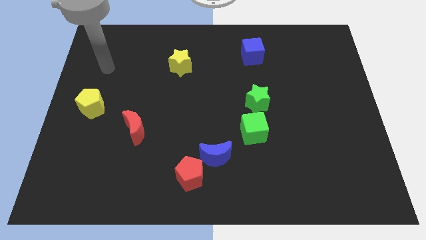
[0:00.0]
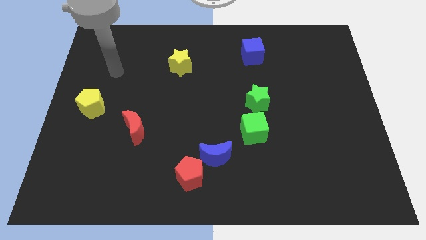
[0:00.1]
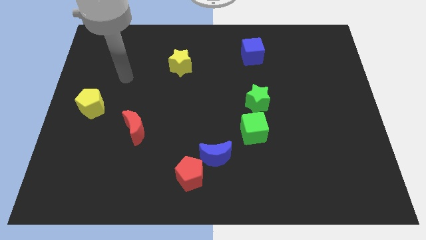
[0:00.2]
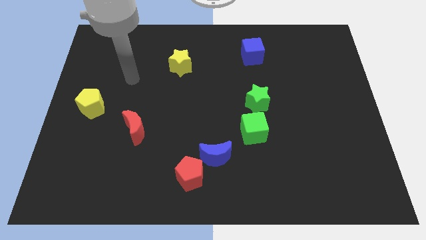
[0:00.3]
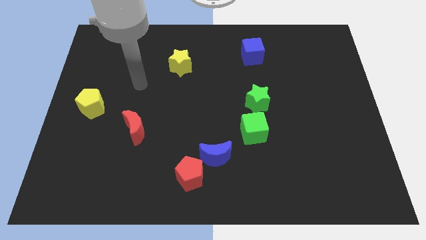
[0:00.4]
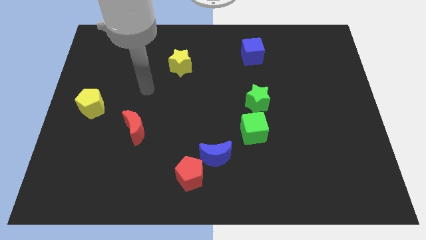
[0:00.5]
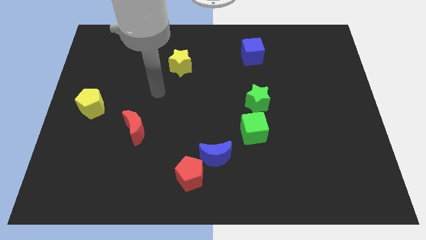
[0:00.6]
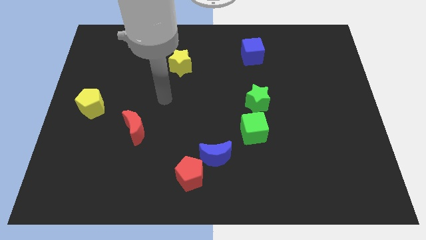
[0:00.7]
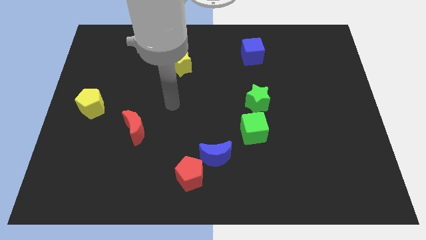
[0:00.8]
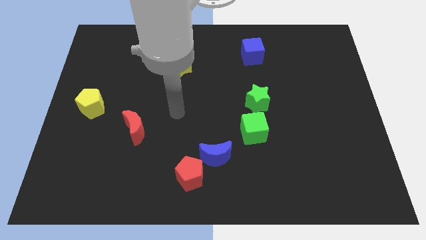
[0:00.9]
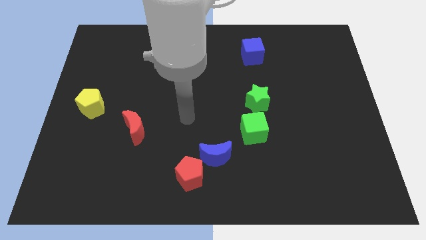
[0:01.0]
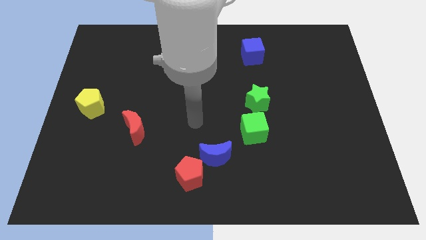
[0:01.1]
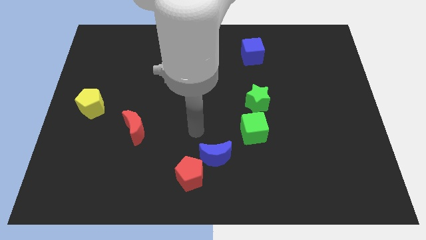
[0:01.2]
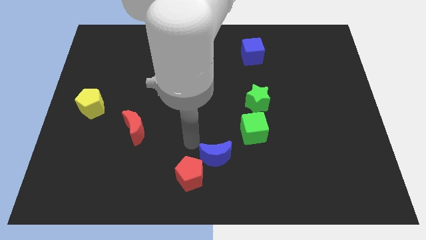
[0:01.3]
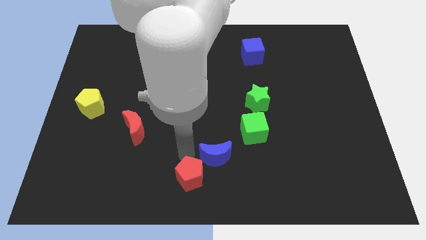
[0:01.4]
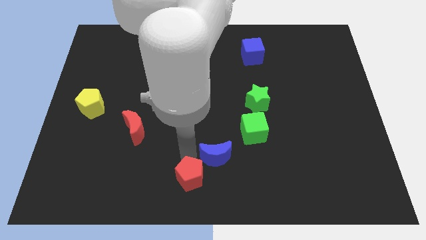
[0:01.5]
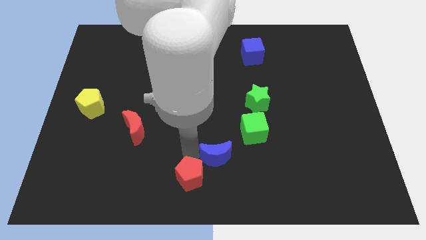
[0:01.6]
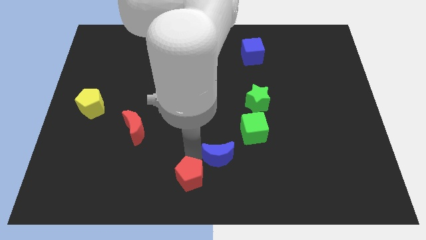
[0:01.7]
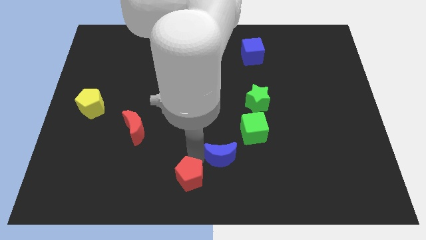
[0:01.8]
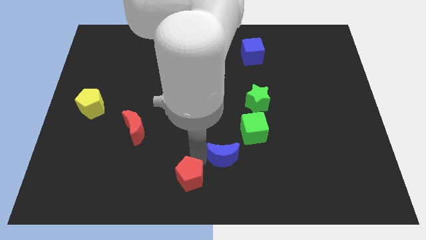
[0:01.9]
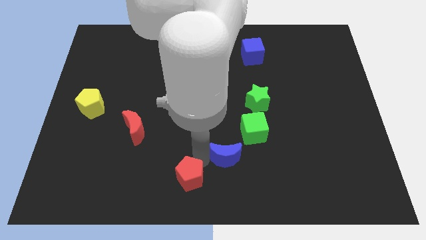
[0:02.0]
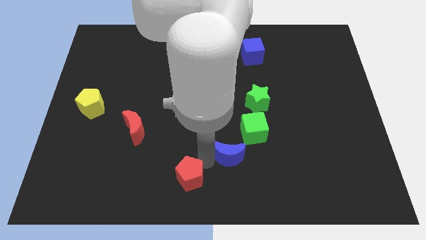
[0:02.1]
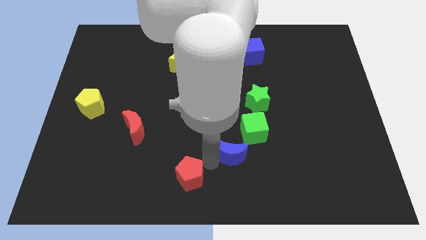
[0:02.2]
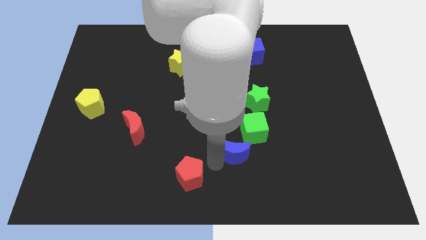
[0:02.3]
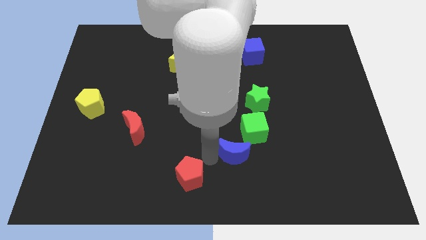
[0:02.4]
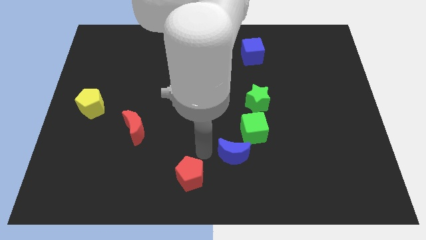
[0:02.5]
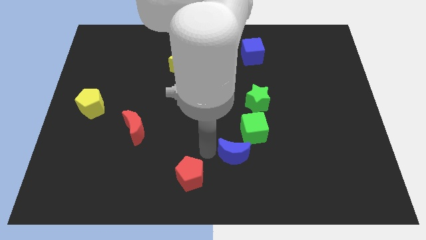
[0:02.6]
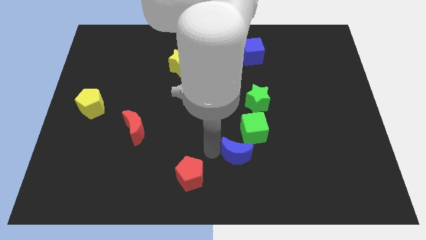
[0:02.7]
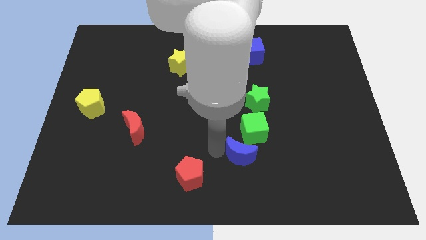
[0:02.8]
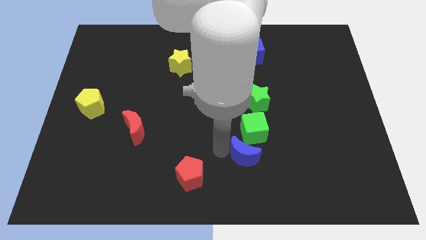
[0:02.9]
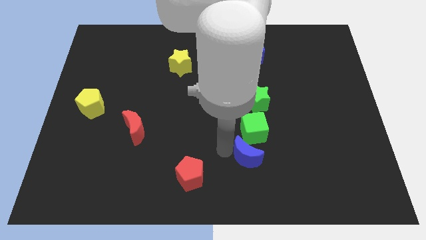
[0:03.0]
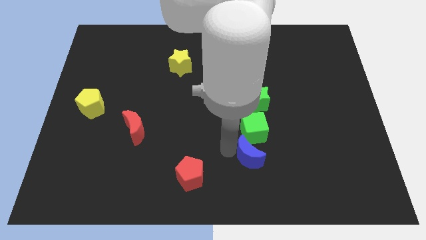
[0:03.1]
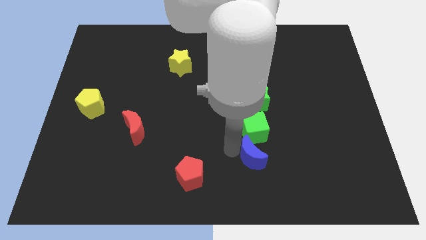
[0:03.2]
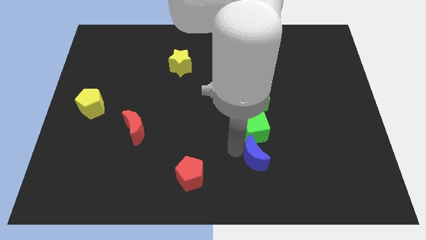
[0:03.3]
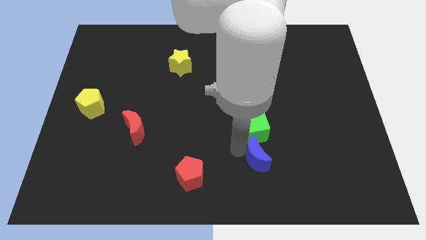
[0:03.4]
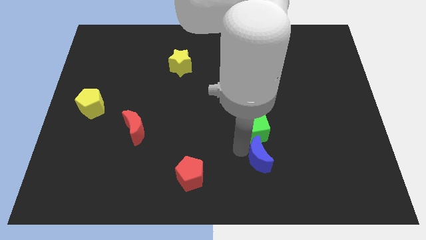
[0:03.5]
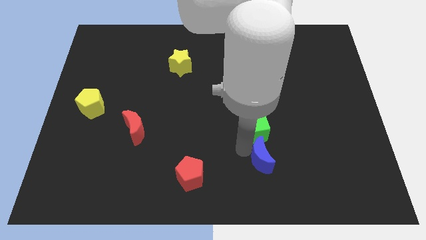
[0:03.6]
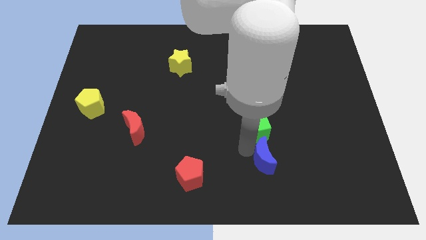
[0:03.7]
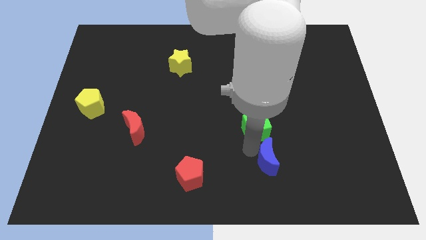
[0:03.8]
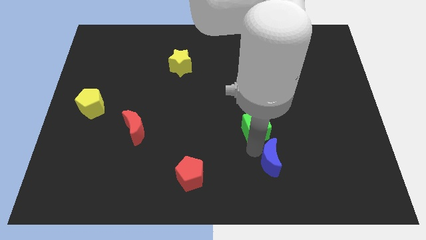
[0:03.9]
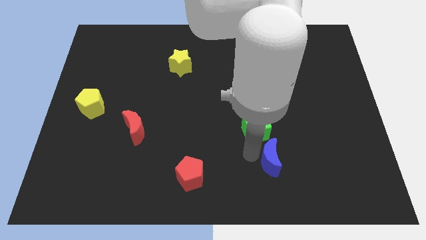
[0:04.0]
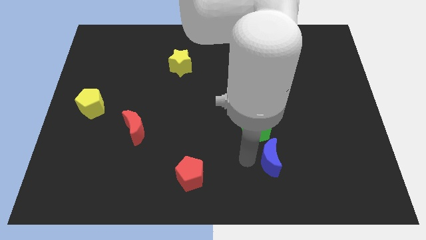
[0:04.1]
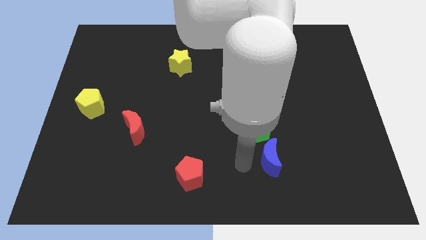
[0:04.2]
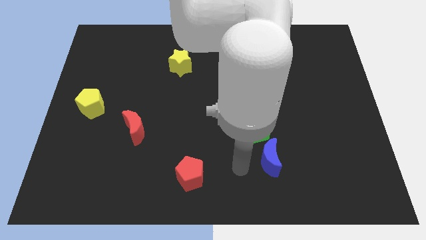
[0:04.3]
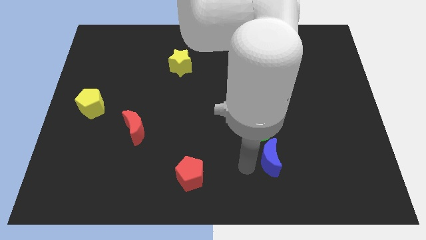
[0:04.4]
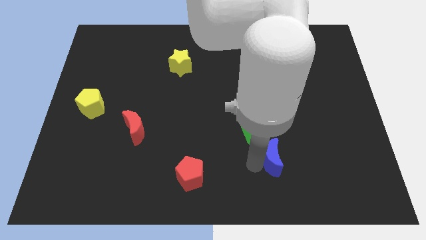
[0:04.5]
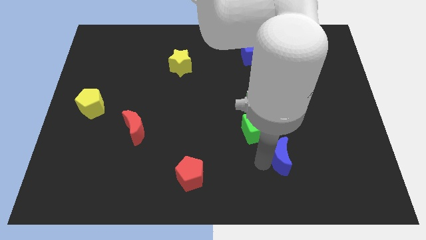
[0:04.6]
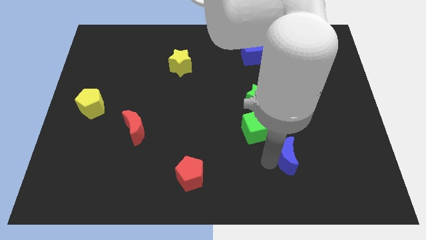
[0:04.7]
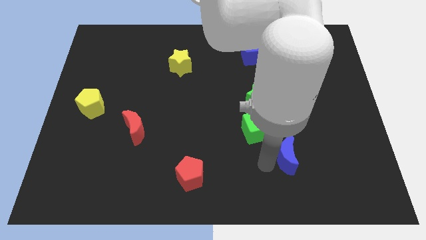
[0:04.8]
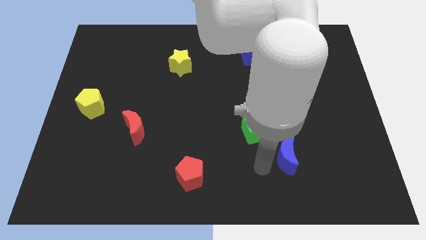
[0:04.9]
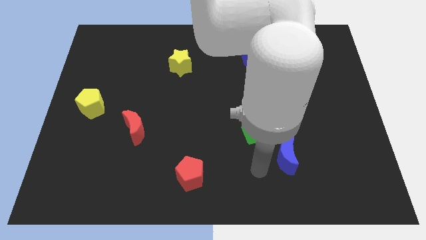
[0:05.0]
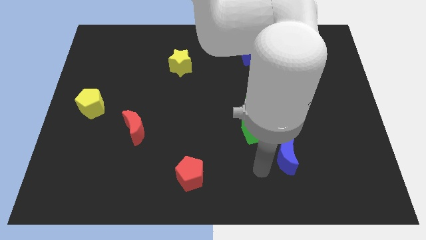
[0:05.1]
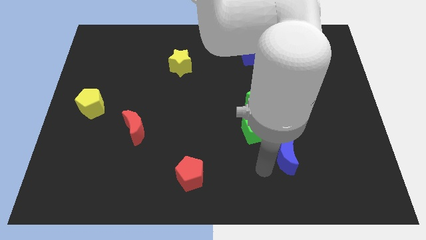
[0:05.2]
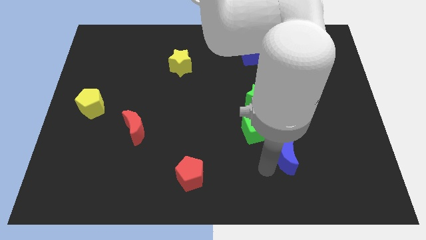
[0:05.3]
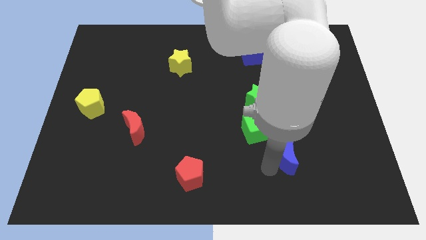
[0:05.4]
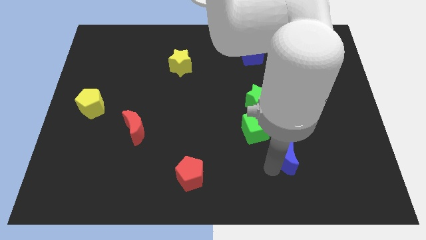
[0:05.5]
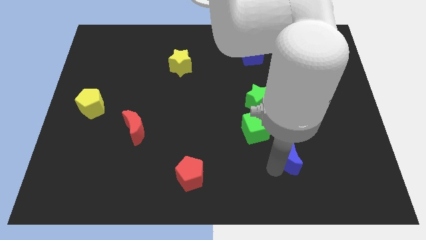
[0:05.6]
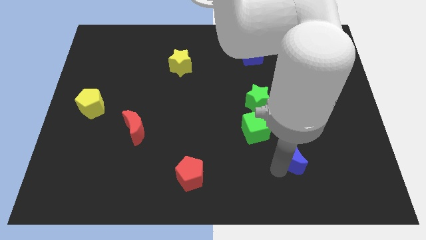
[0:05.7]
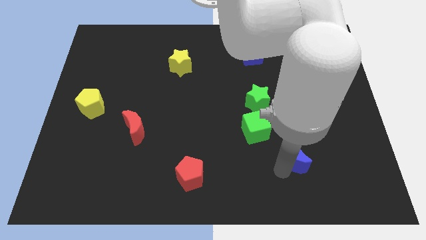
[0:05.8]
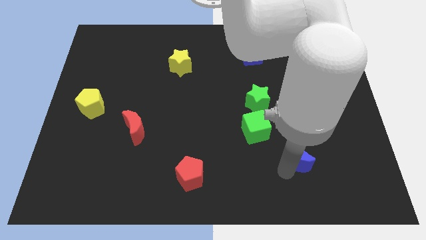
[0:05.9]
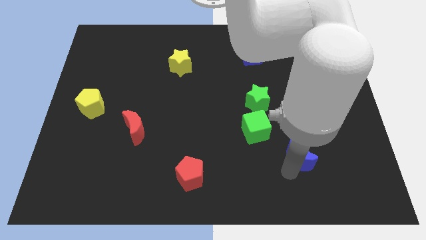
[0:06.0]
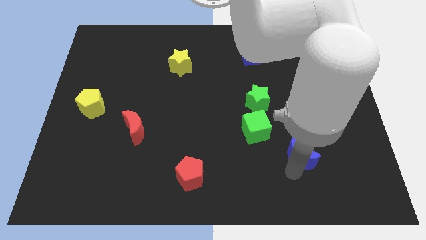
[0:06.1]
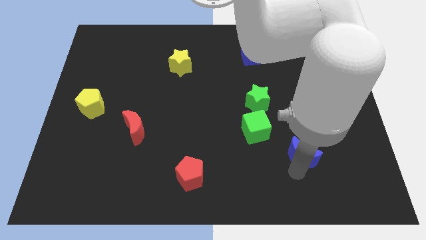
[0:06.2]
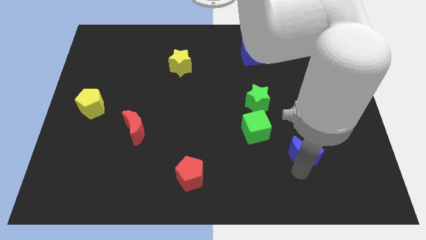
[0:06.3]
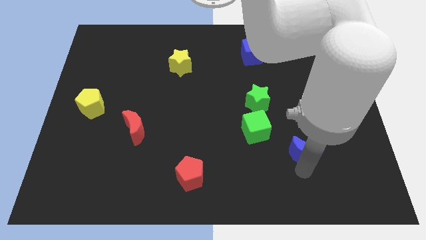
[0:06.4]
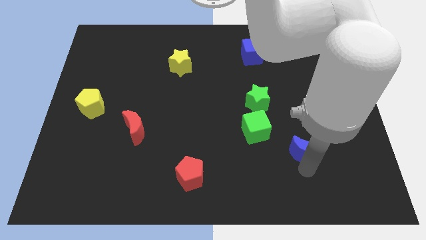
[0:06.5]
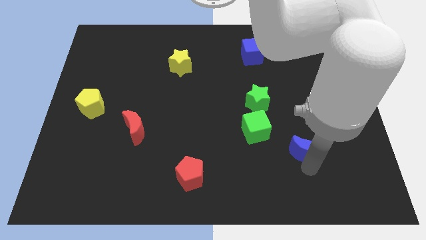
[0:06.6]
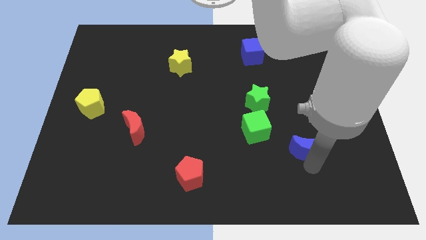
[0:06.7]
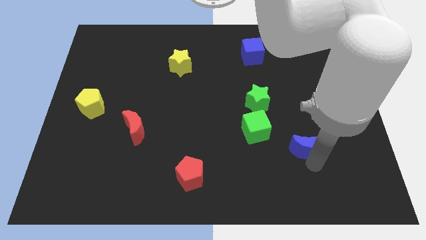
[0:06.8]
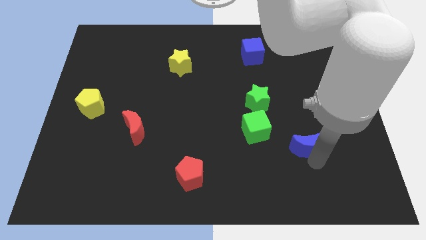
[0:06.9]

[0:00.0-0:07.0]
push the blue moon to the right of the green cube

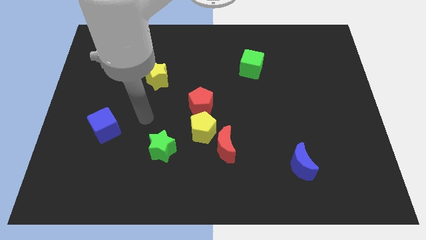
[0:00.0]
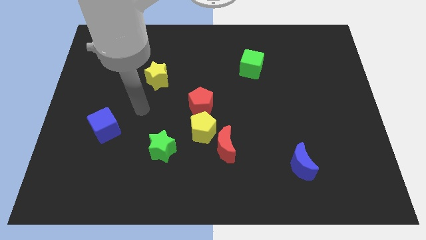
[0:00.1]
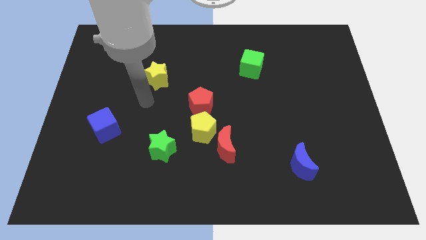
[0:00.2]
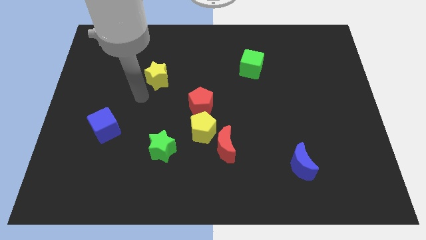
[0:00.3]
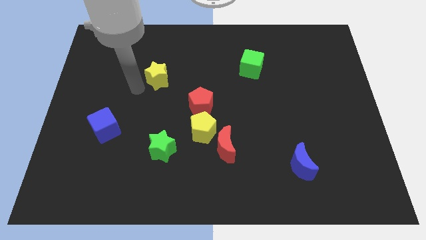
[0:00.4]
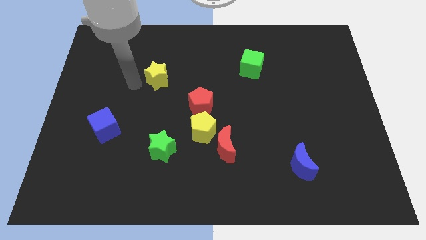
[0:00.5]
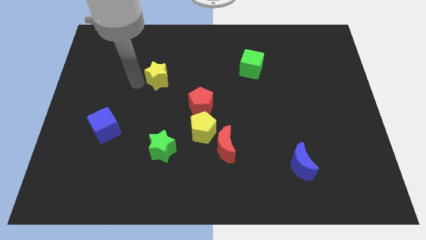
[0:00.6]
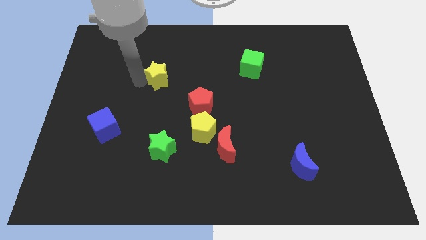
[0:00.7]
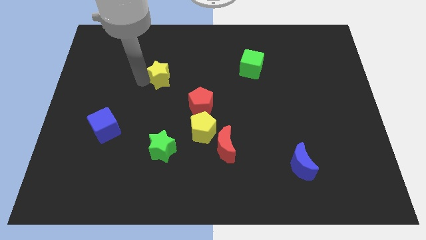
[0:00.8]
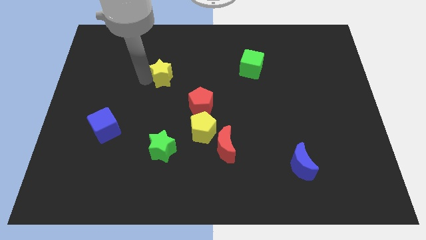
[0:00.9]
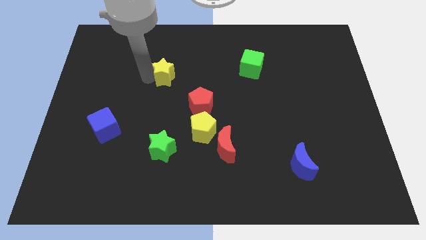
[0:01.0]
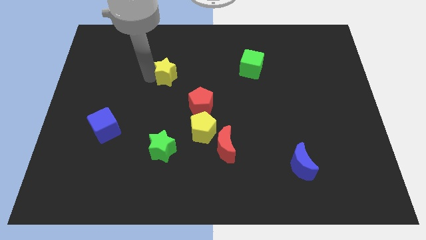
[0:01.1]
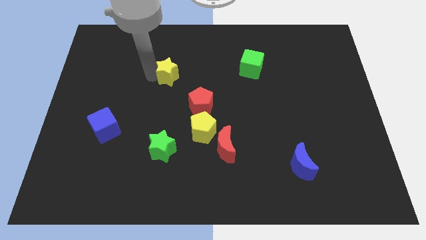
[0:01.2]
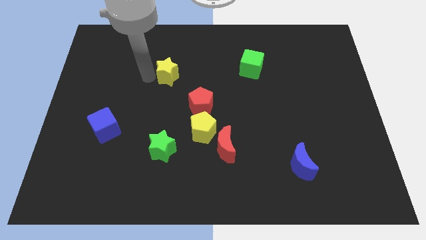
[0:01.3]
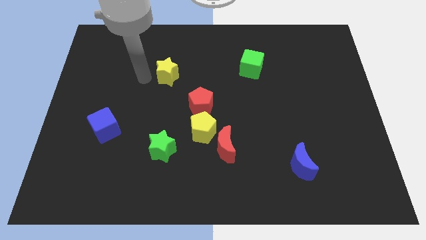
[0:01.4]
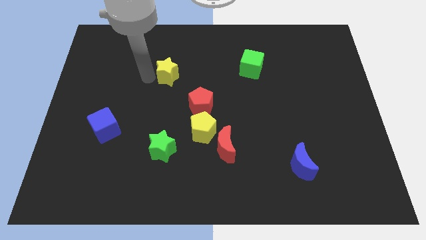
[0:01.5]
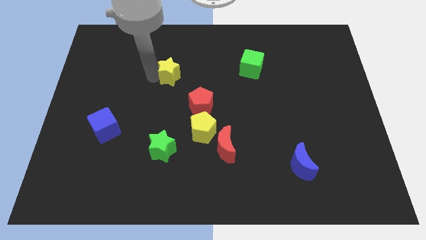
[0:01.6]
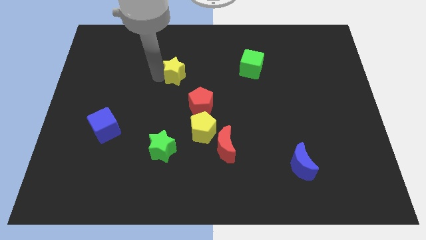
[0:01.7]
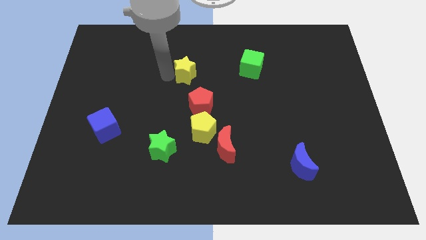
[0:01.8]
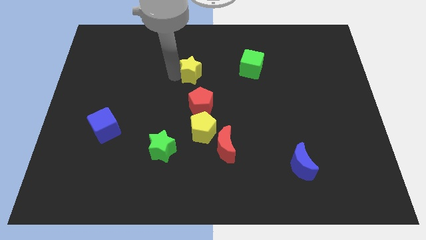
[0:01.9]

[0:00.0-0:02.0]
slide the yellow star to the left of the green cube
